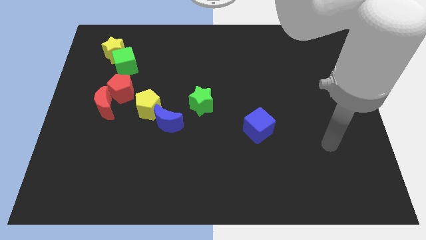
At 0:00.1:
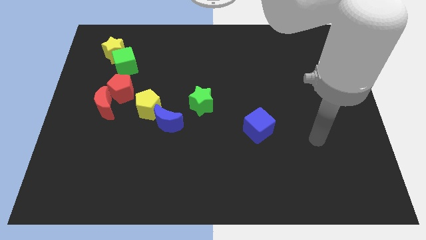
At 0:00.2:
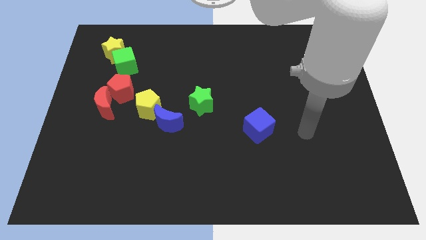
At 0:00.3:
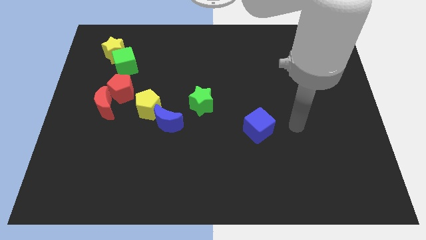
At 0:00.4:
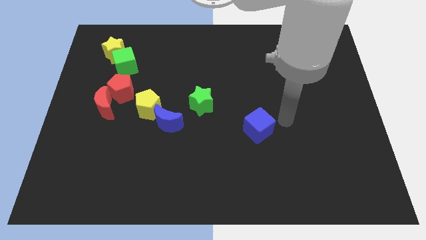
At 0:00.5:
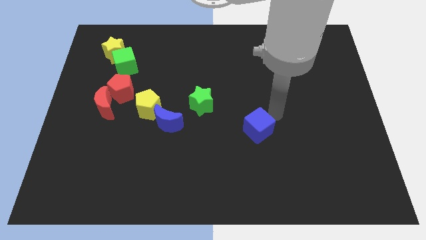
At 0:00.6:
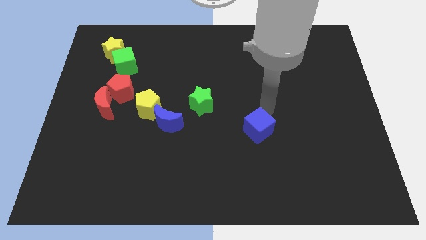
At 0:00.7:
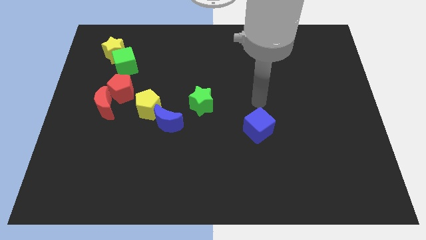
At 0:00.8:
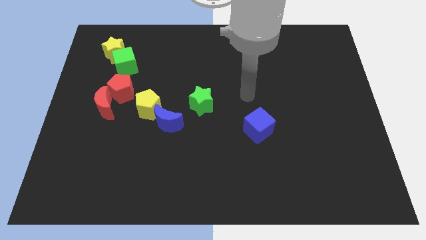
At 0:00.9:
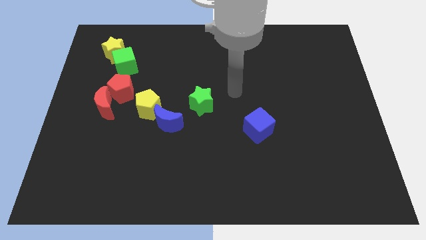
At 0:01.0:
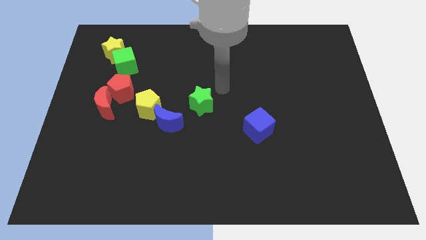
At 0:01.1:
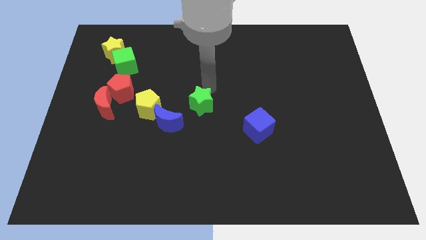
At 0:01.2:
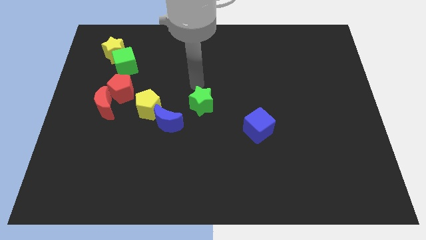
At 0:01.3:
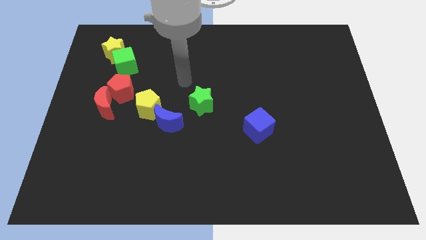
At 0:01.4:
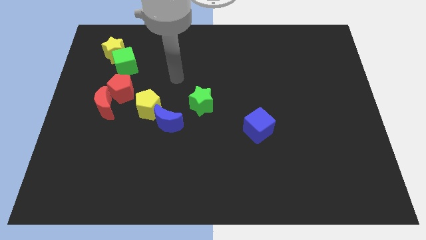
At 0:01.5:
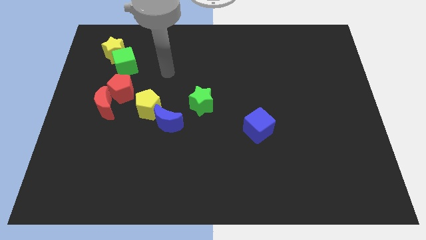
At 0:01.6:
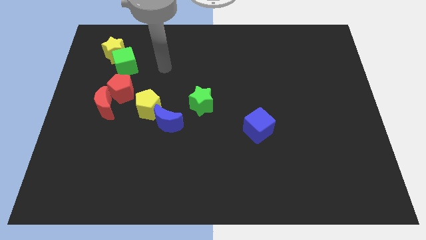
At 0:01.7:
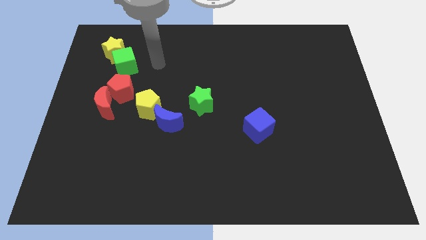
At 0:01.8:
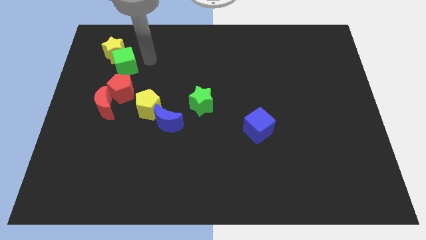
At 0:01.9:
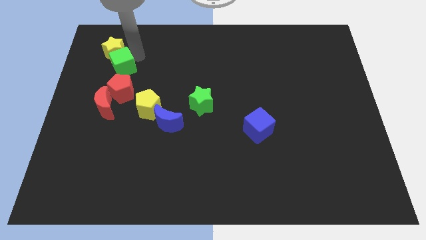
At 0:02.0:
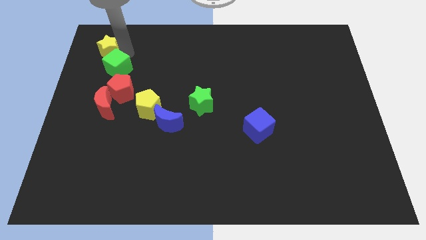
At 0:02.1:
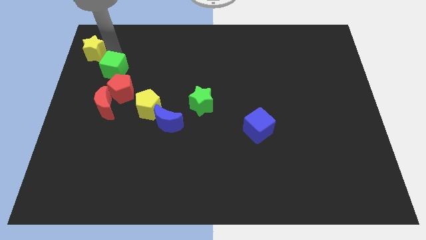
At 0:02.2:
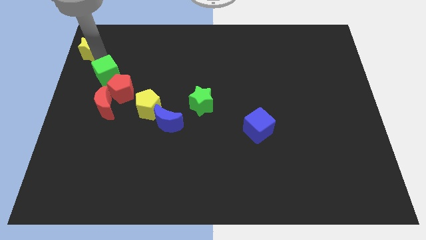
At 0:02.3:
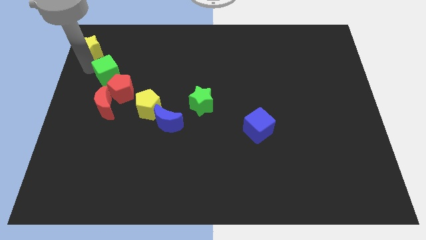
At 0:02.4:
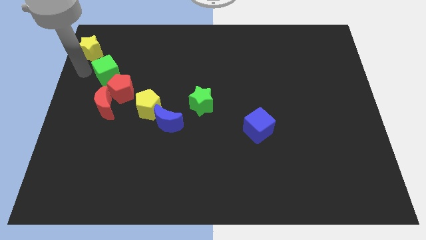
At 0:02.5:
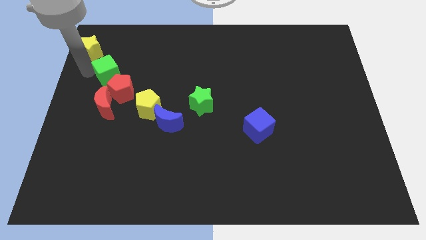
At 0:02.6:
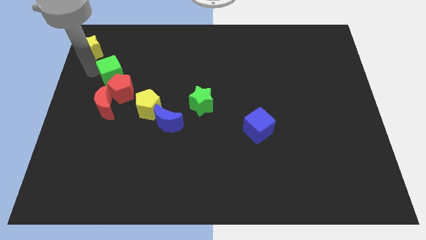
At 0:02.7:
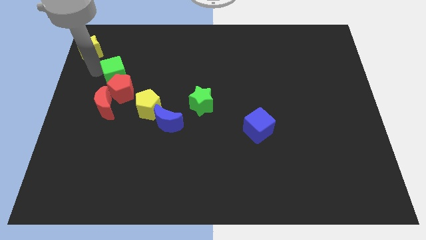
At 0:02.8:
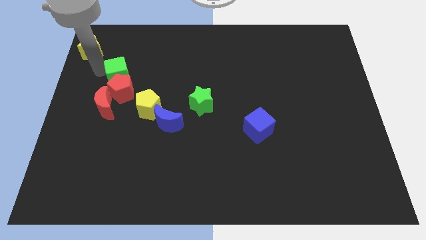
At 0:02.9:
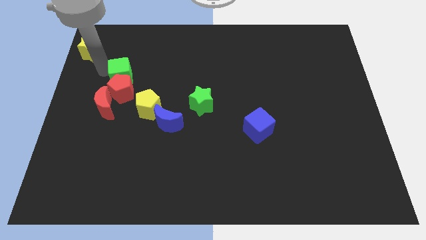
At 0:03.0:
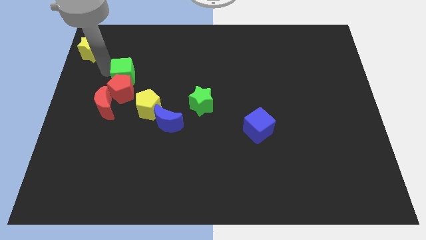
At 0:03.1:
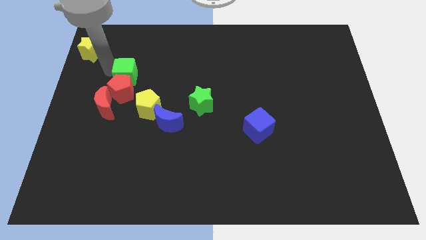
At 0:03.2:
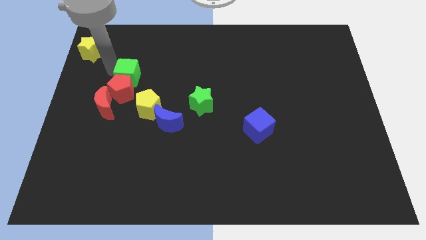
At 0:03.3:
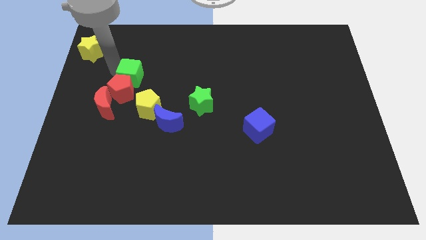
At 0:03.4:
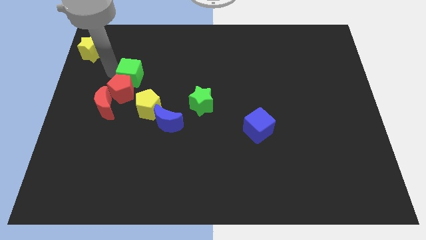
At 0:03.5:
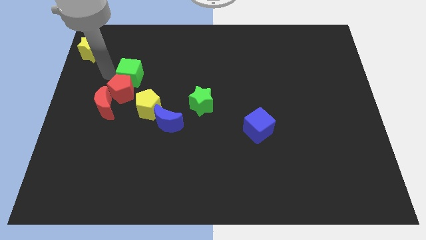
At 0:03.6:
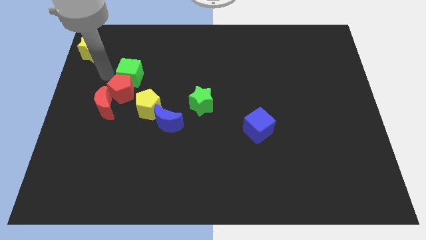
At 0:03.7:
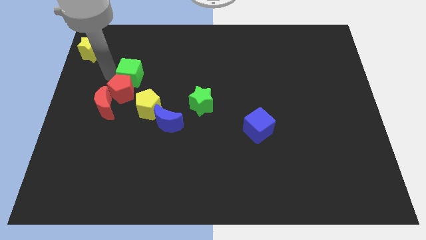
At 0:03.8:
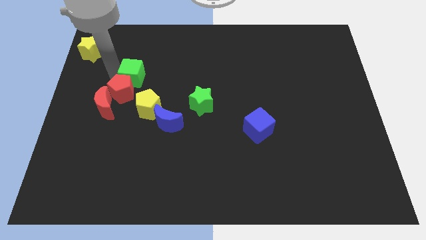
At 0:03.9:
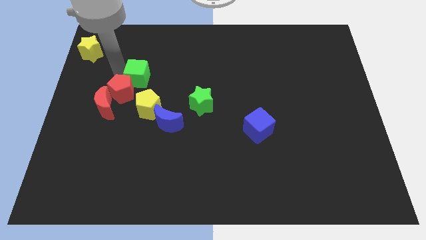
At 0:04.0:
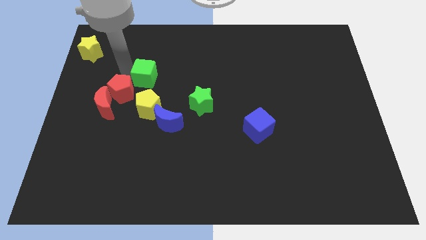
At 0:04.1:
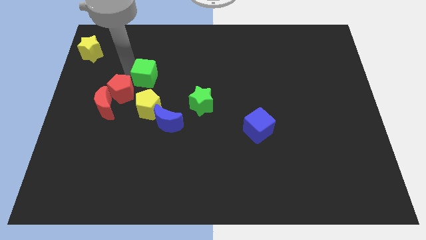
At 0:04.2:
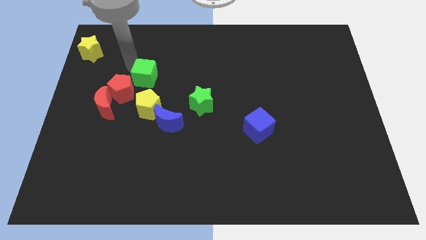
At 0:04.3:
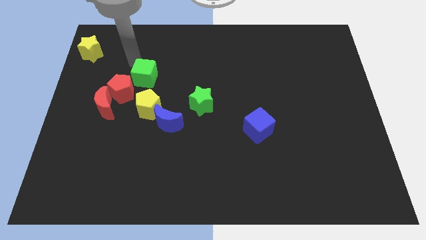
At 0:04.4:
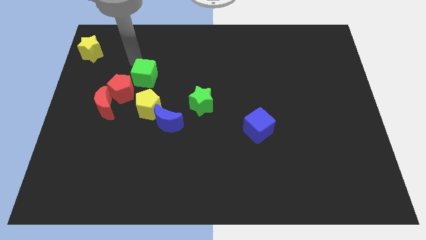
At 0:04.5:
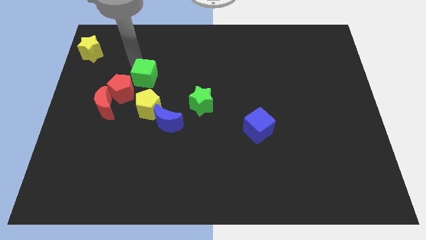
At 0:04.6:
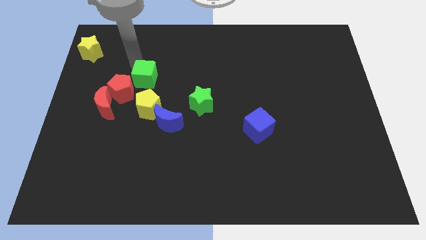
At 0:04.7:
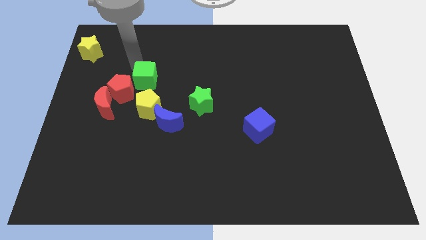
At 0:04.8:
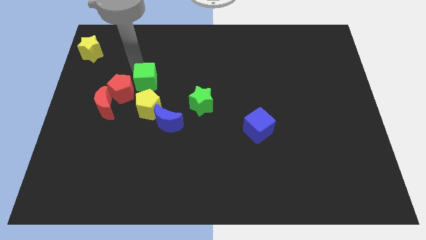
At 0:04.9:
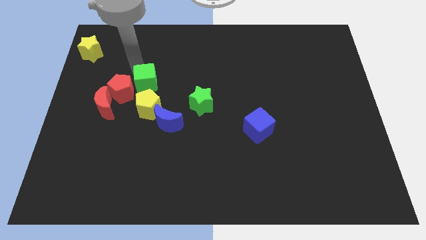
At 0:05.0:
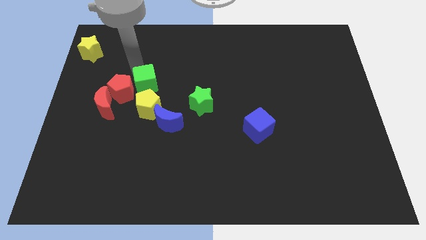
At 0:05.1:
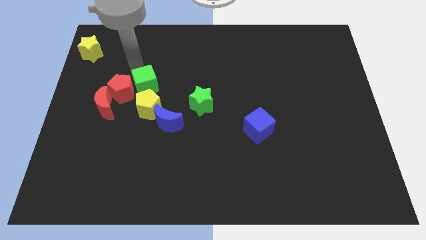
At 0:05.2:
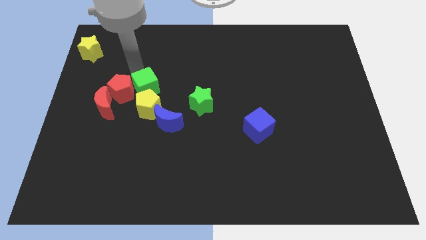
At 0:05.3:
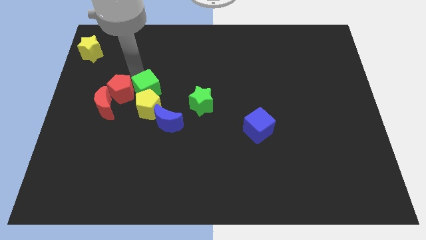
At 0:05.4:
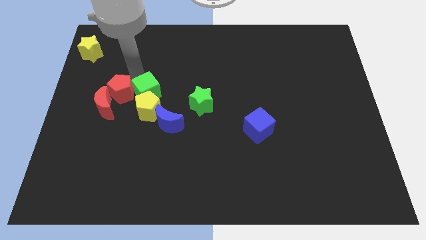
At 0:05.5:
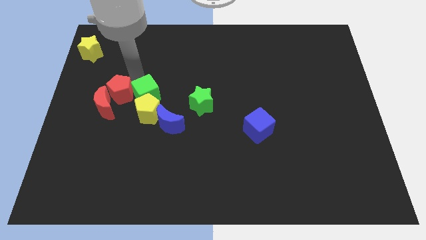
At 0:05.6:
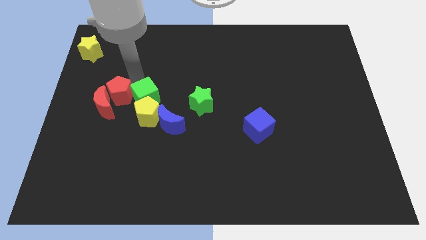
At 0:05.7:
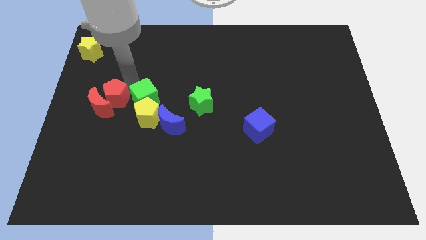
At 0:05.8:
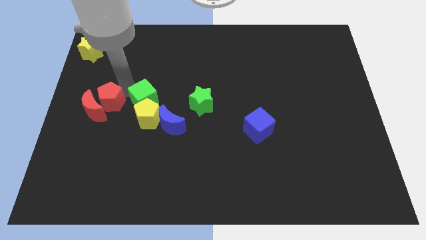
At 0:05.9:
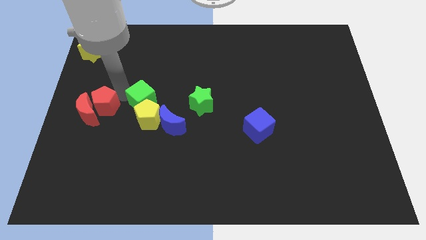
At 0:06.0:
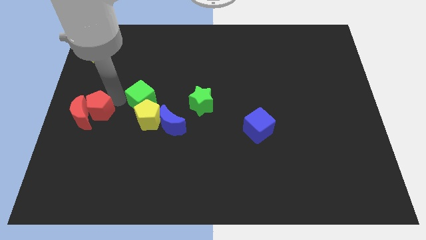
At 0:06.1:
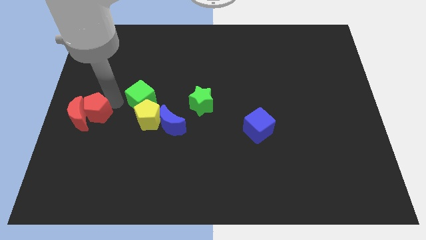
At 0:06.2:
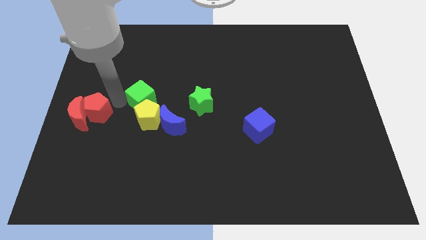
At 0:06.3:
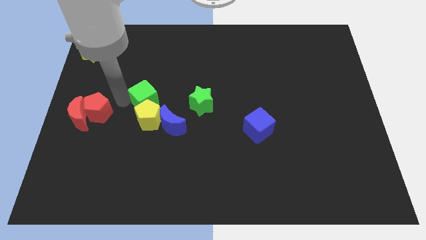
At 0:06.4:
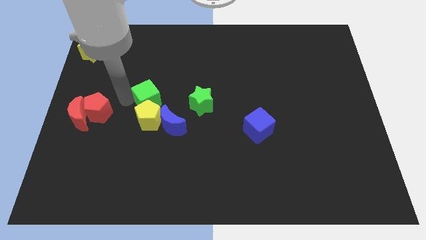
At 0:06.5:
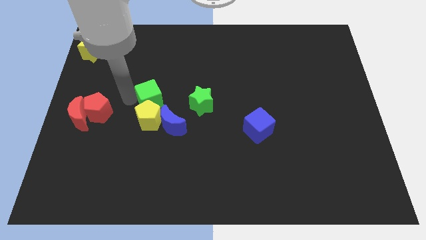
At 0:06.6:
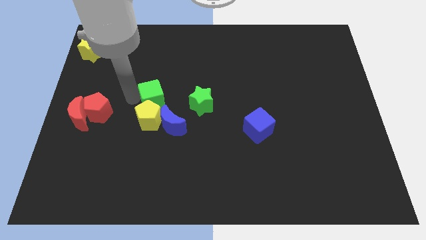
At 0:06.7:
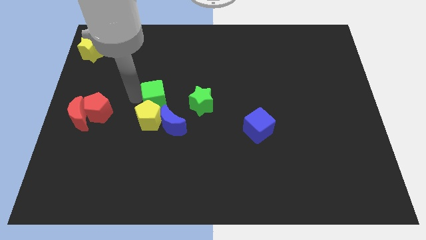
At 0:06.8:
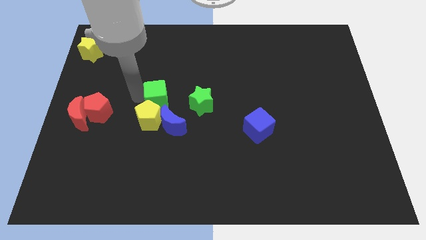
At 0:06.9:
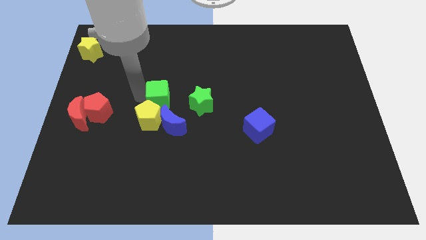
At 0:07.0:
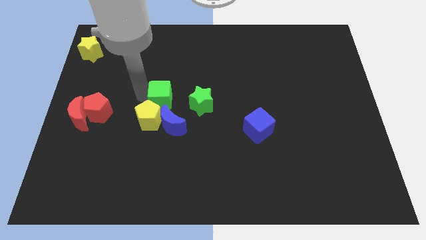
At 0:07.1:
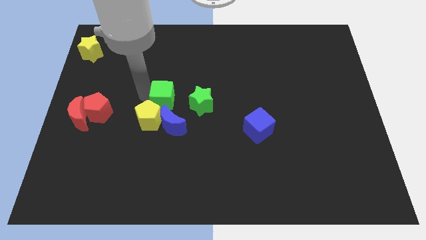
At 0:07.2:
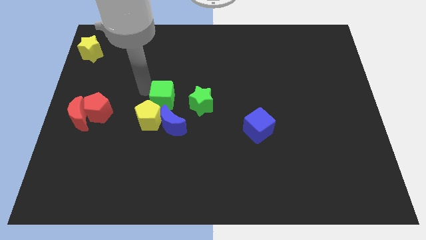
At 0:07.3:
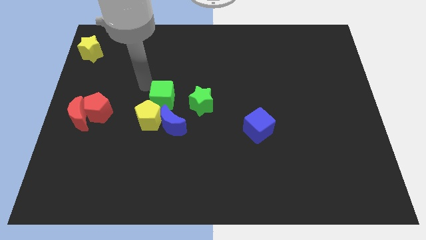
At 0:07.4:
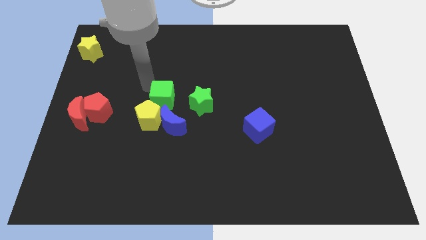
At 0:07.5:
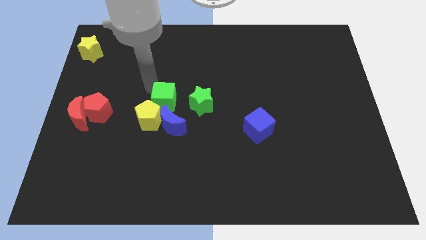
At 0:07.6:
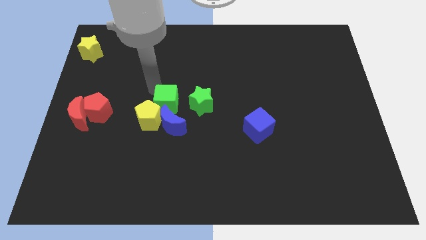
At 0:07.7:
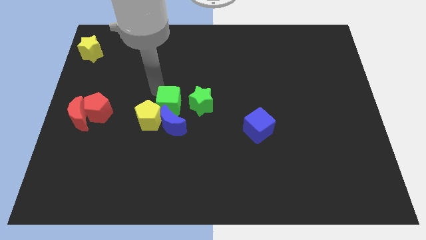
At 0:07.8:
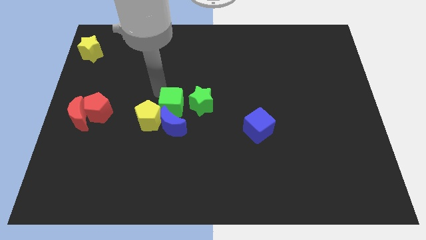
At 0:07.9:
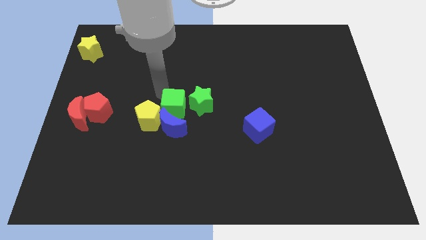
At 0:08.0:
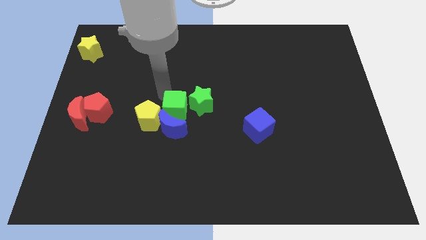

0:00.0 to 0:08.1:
move the green cube diagonally downwards and right
